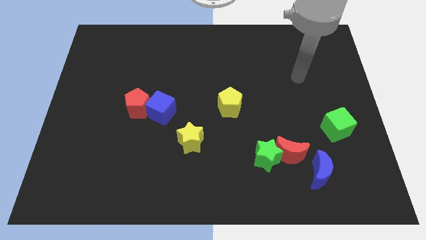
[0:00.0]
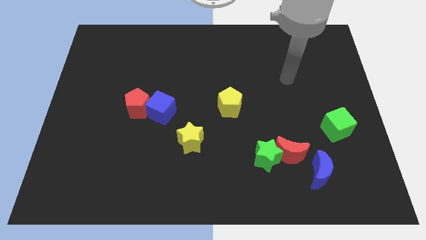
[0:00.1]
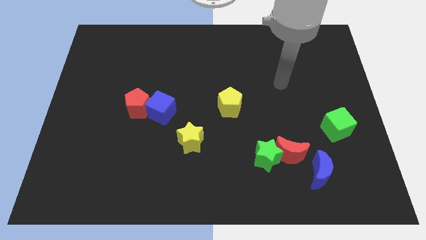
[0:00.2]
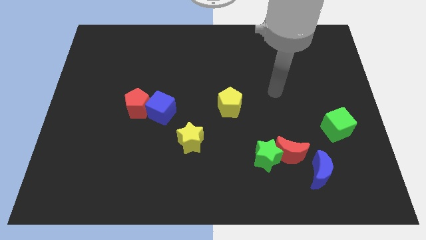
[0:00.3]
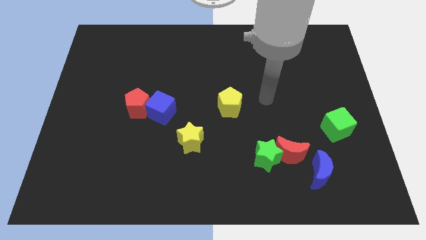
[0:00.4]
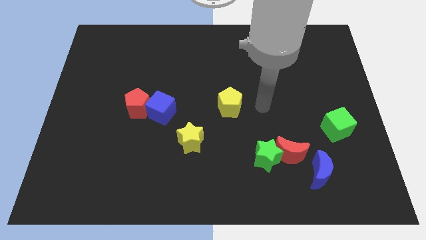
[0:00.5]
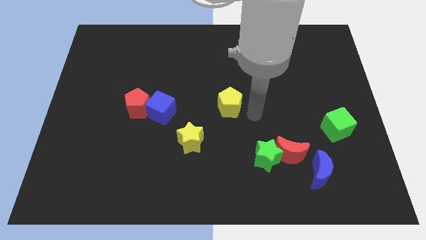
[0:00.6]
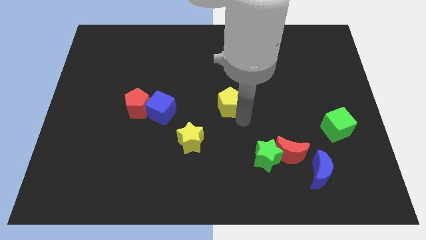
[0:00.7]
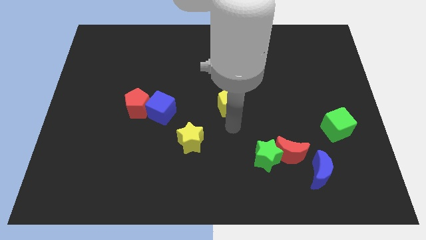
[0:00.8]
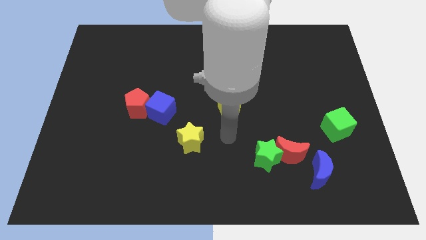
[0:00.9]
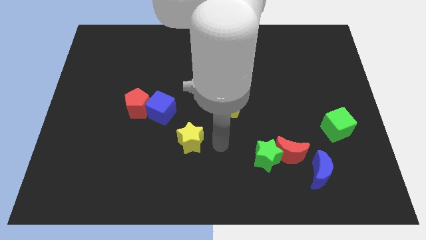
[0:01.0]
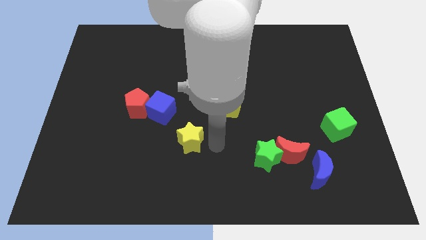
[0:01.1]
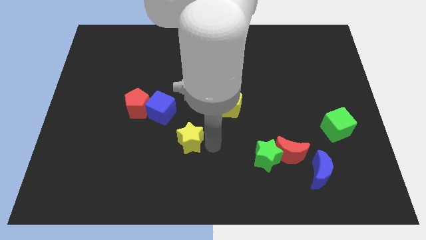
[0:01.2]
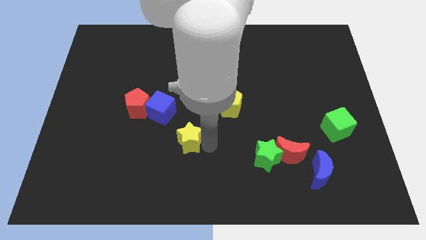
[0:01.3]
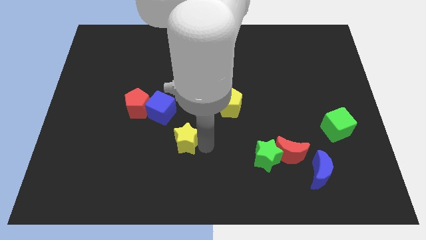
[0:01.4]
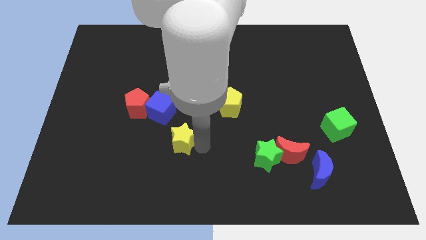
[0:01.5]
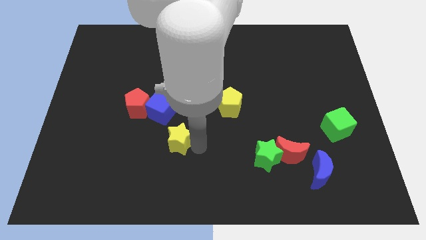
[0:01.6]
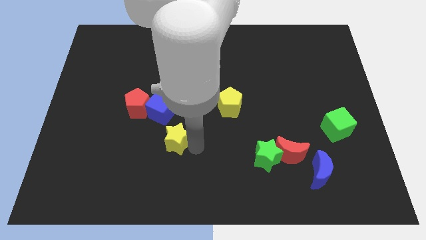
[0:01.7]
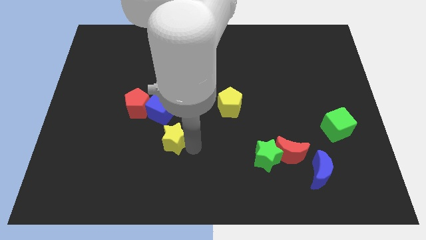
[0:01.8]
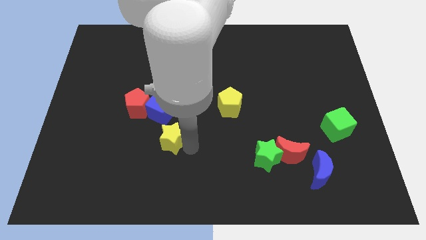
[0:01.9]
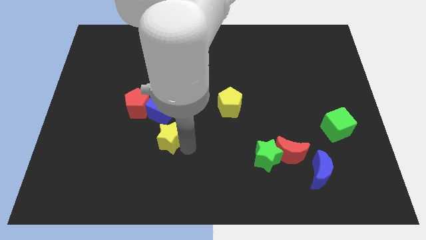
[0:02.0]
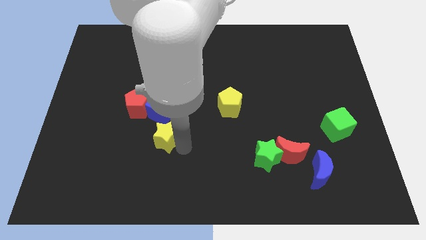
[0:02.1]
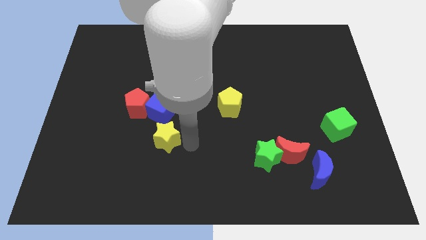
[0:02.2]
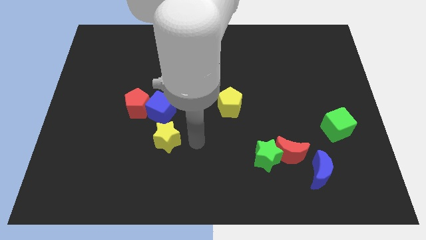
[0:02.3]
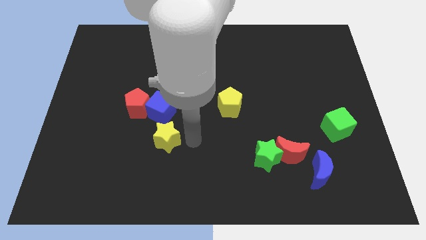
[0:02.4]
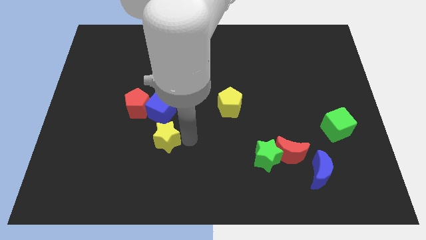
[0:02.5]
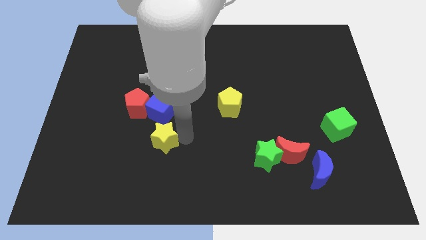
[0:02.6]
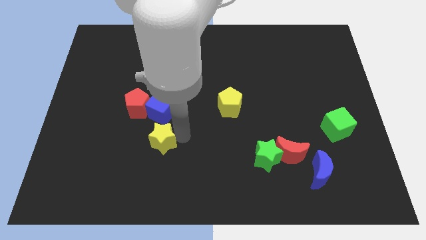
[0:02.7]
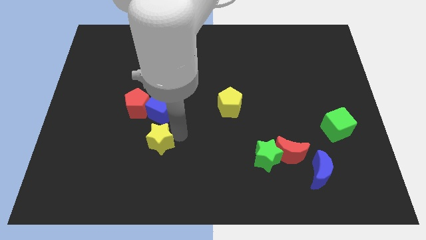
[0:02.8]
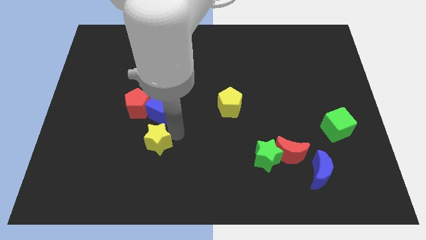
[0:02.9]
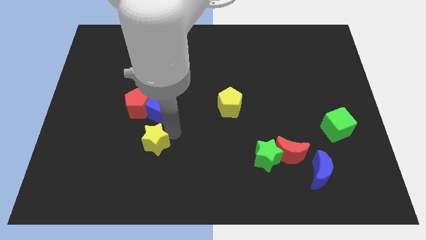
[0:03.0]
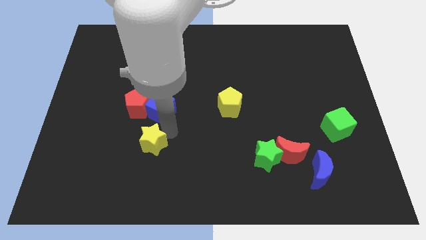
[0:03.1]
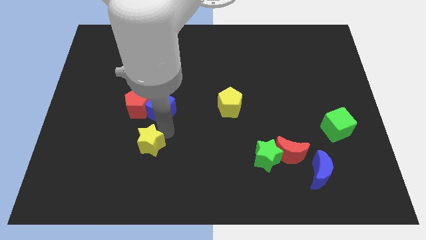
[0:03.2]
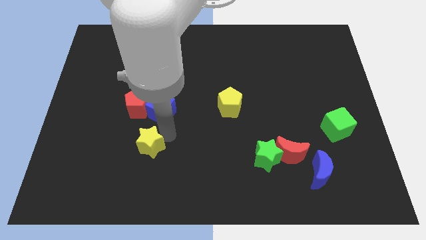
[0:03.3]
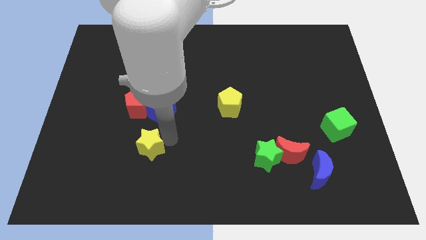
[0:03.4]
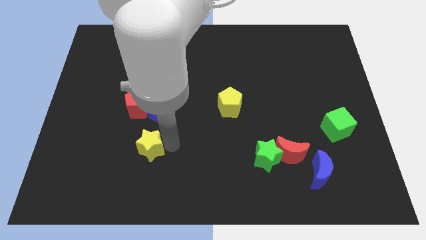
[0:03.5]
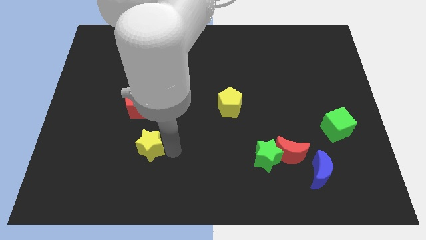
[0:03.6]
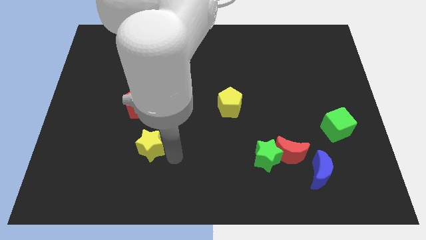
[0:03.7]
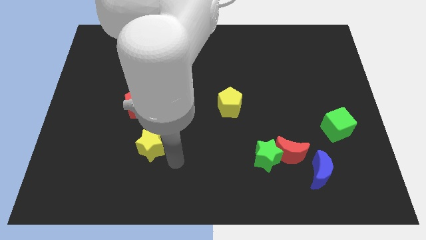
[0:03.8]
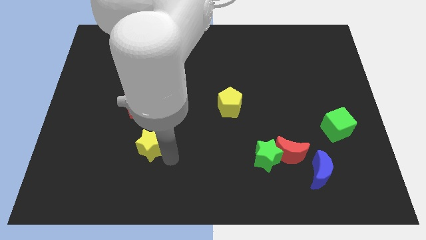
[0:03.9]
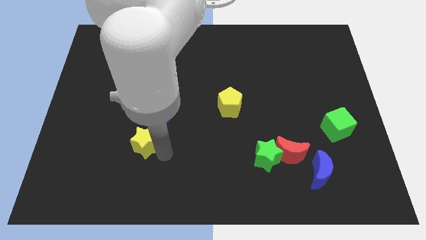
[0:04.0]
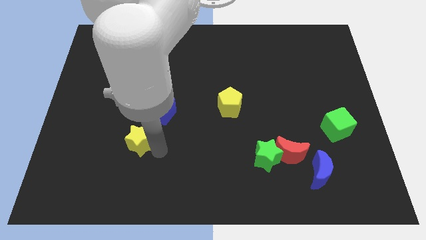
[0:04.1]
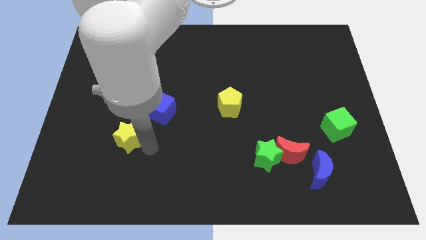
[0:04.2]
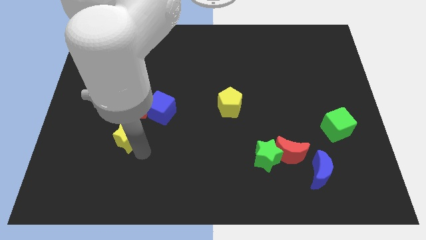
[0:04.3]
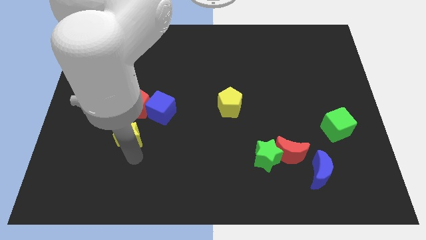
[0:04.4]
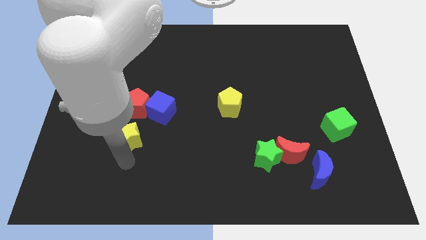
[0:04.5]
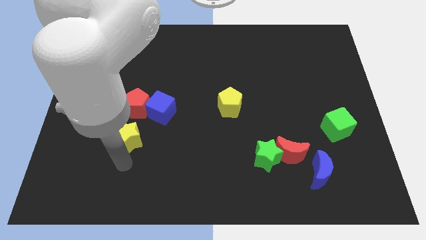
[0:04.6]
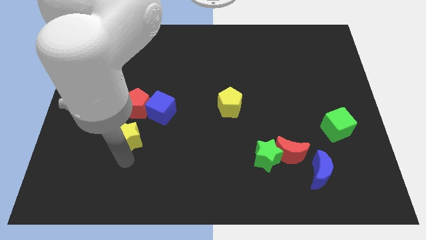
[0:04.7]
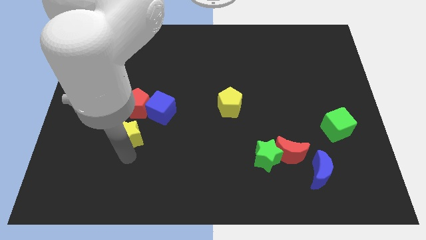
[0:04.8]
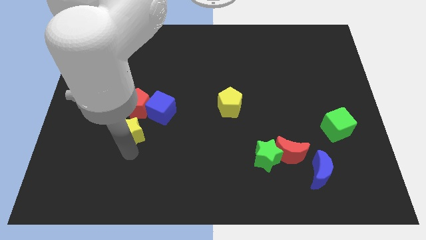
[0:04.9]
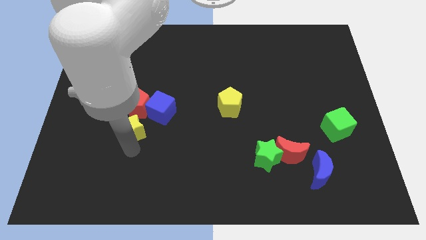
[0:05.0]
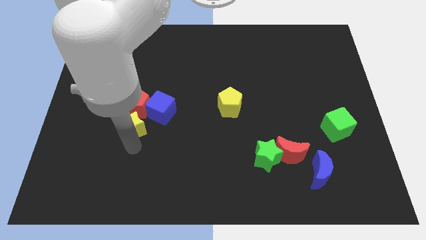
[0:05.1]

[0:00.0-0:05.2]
push the yellow star next to the red pentagon

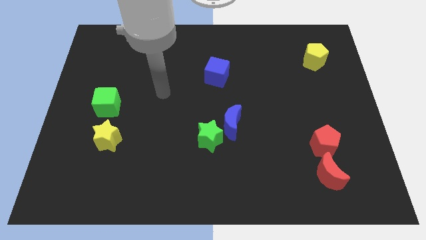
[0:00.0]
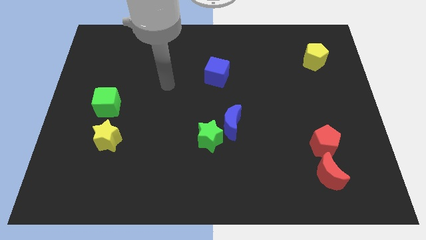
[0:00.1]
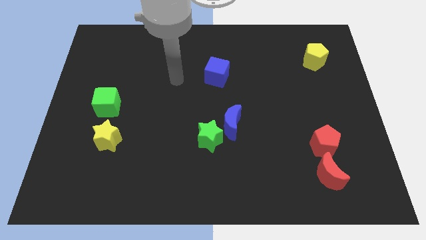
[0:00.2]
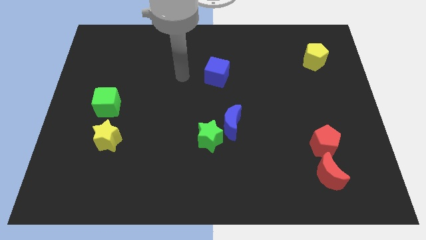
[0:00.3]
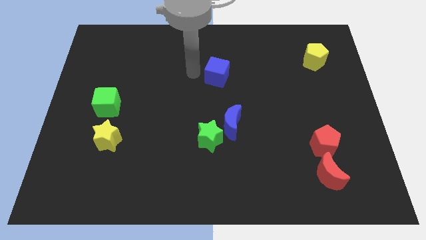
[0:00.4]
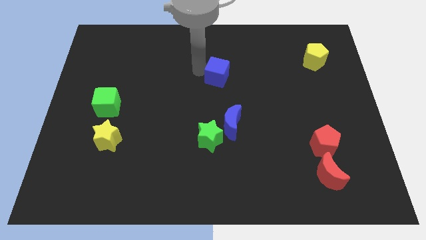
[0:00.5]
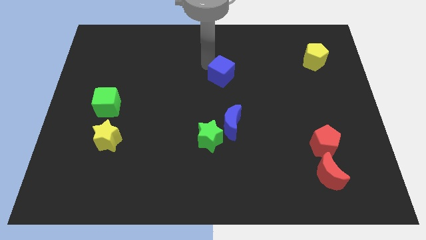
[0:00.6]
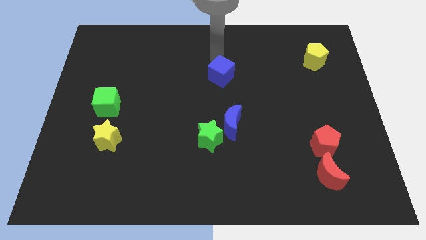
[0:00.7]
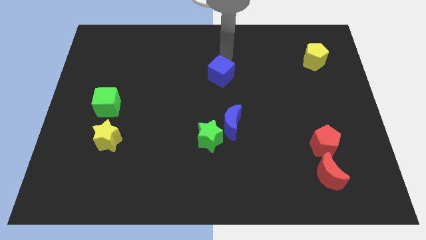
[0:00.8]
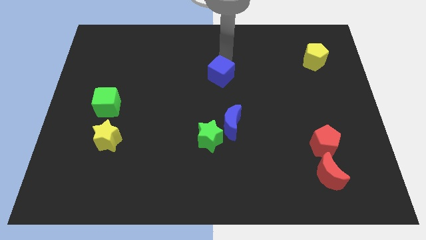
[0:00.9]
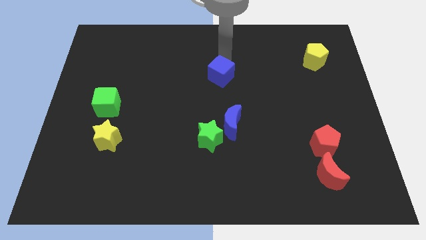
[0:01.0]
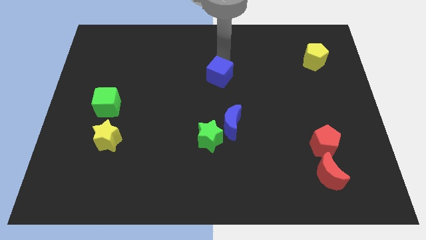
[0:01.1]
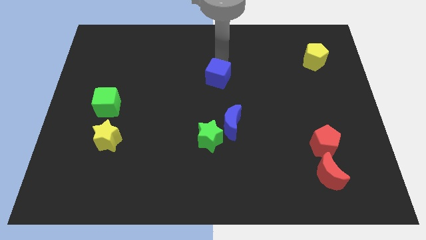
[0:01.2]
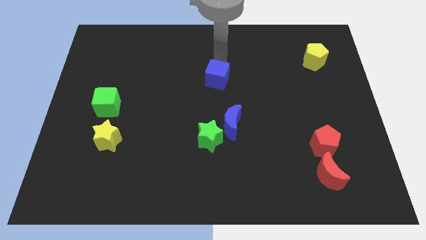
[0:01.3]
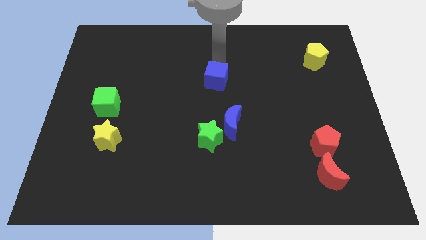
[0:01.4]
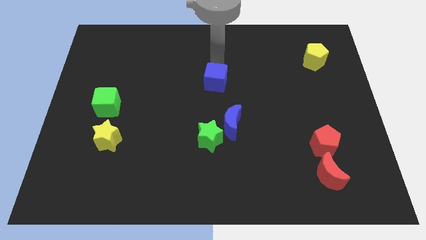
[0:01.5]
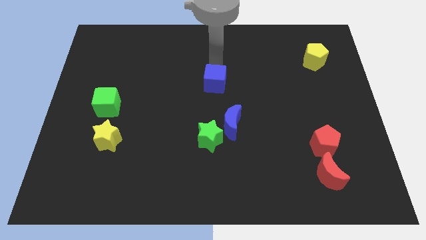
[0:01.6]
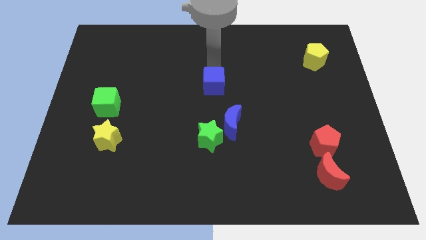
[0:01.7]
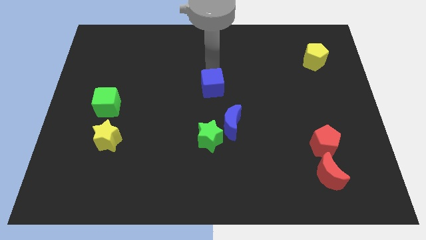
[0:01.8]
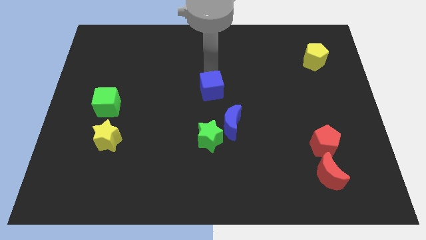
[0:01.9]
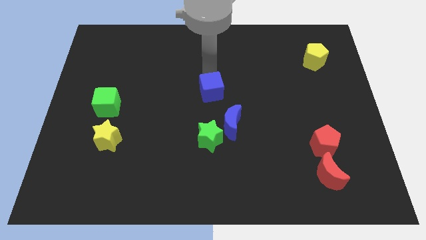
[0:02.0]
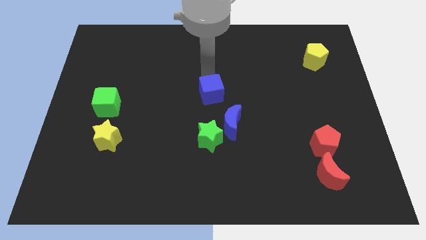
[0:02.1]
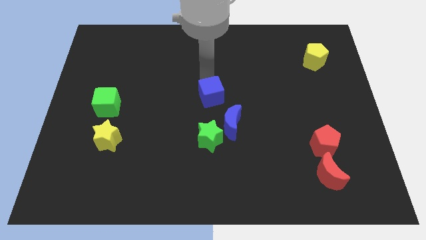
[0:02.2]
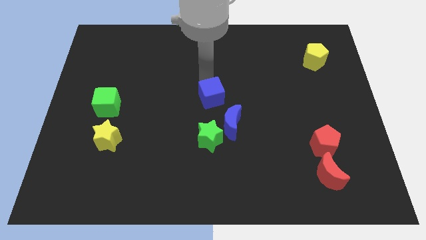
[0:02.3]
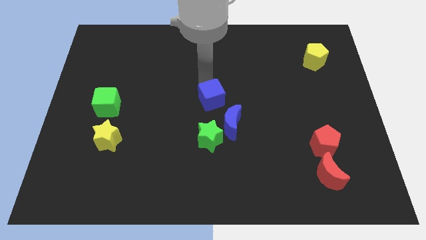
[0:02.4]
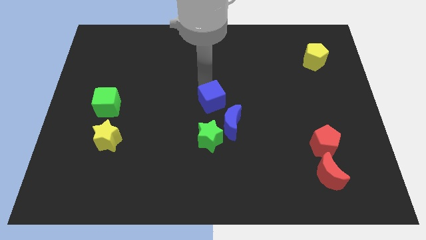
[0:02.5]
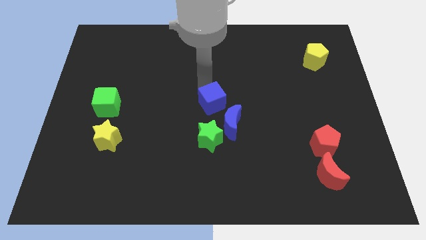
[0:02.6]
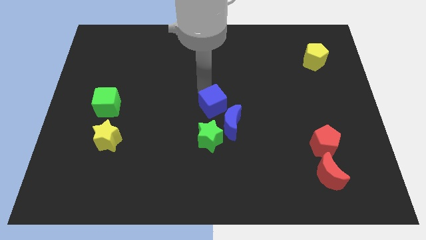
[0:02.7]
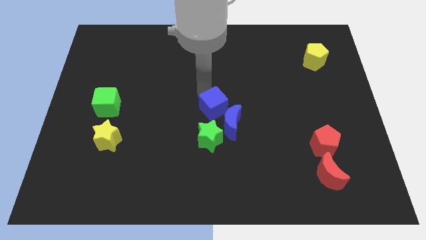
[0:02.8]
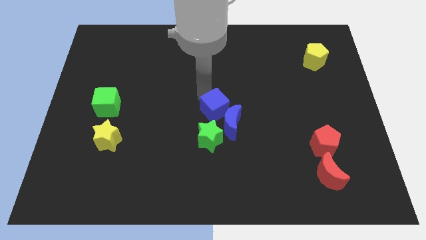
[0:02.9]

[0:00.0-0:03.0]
push the blue cube close to the blue moon
